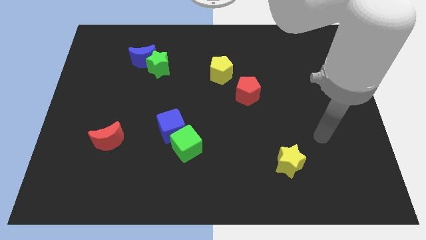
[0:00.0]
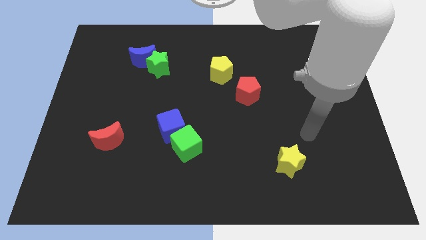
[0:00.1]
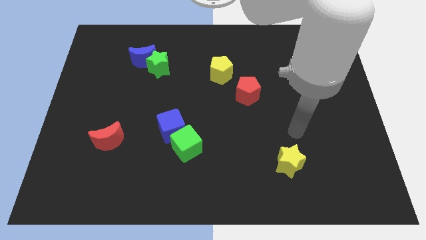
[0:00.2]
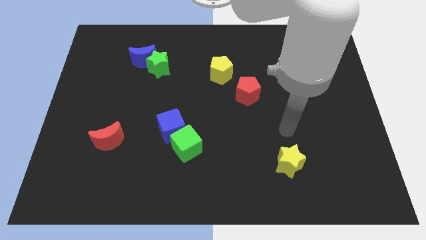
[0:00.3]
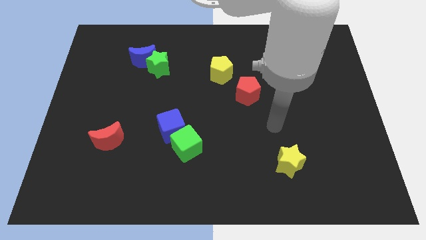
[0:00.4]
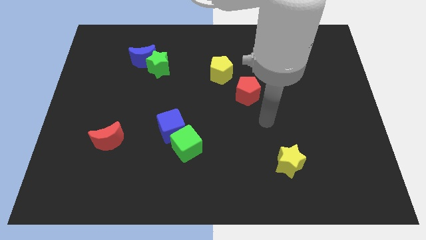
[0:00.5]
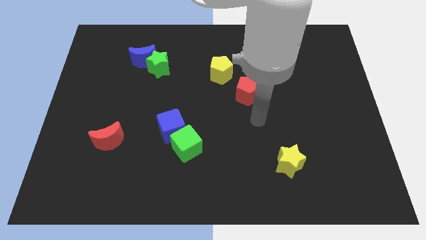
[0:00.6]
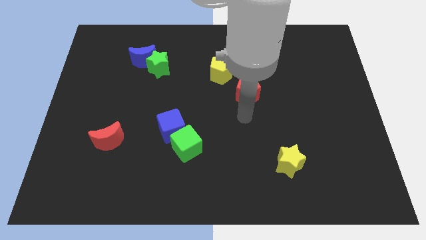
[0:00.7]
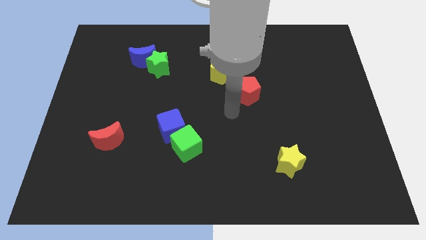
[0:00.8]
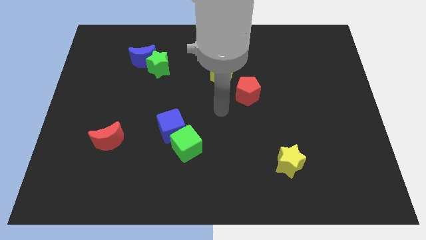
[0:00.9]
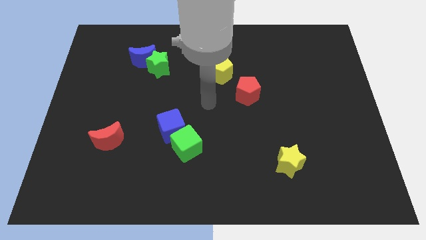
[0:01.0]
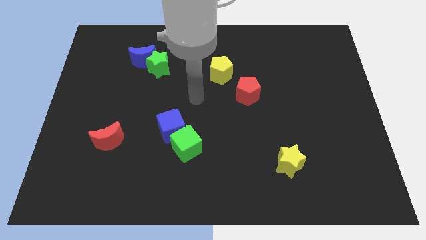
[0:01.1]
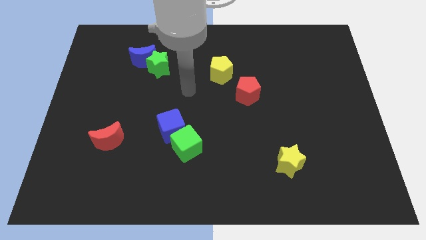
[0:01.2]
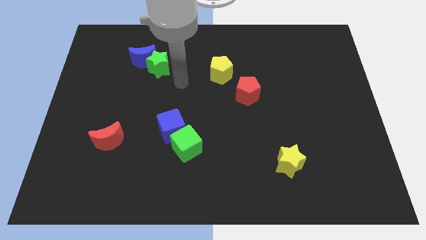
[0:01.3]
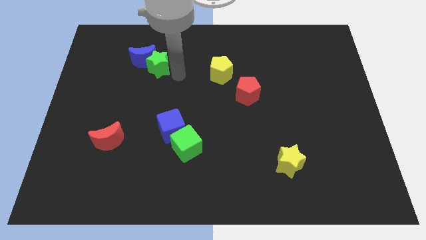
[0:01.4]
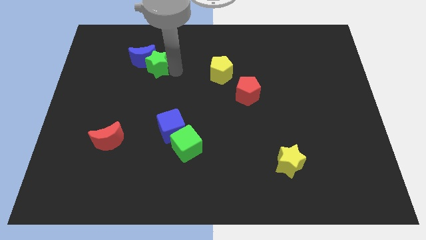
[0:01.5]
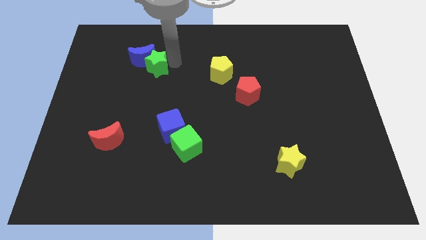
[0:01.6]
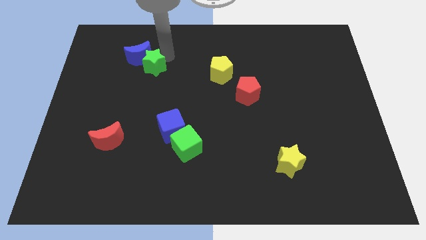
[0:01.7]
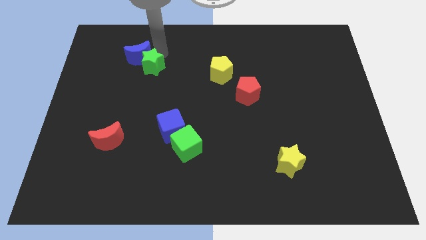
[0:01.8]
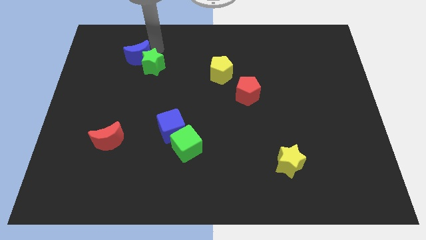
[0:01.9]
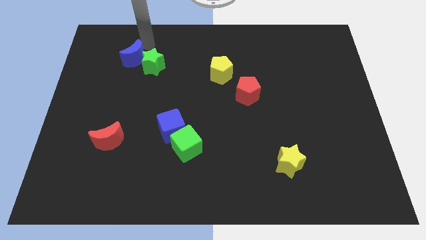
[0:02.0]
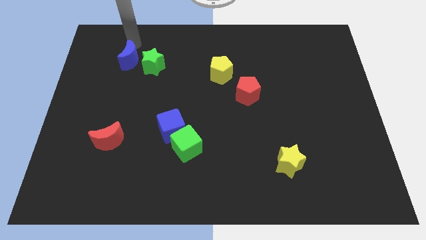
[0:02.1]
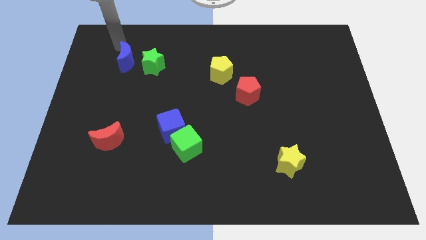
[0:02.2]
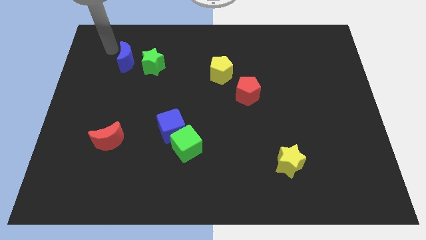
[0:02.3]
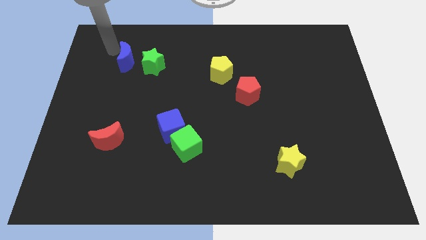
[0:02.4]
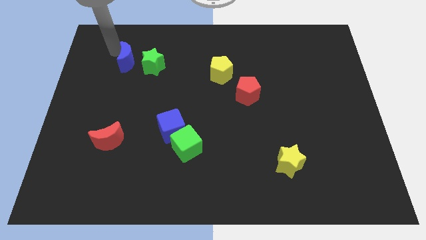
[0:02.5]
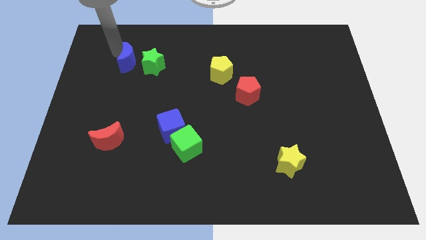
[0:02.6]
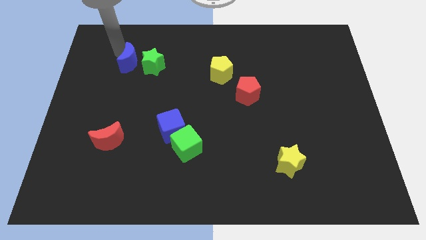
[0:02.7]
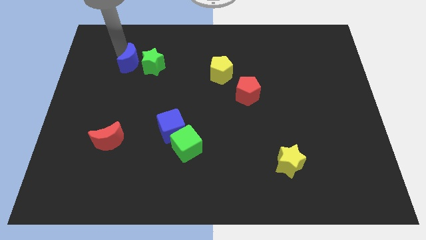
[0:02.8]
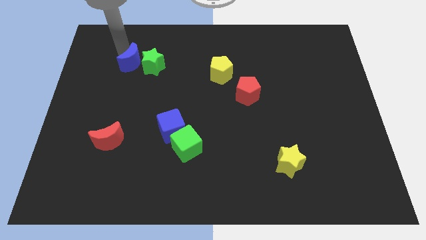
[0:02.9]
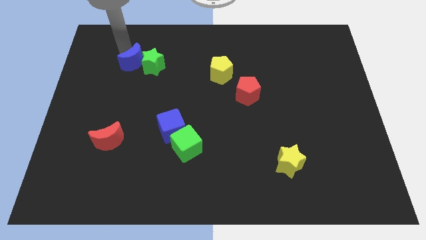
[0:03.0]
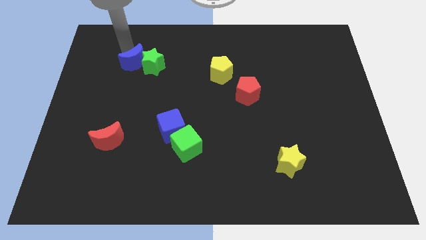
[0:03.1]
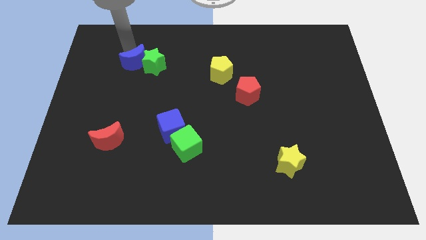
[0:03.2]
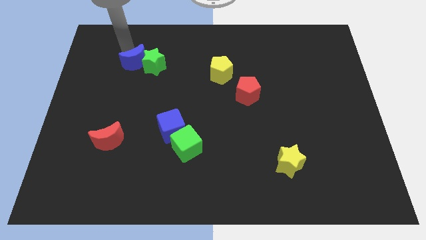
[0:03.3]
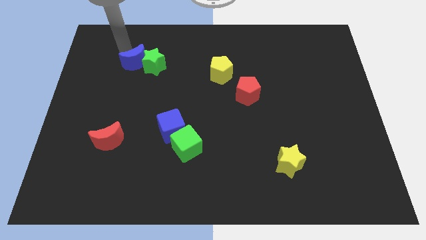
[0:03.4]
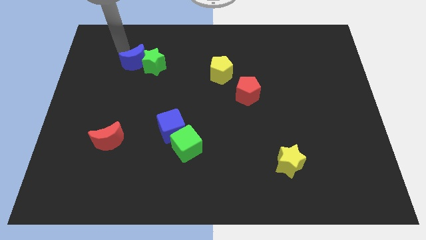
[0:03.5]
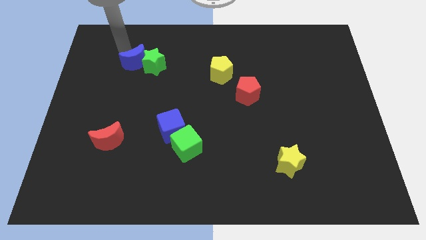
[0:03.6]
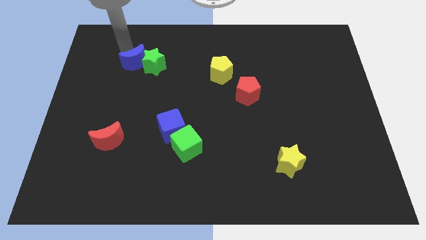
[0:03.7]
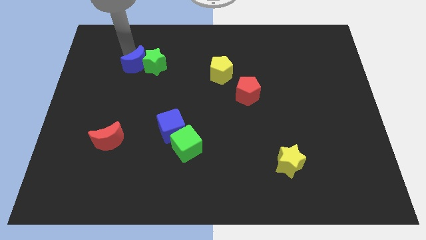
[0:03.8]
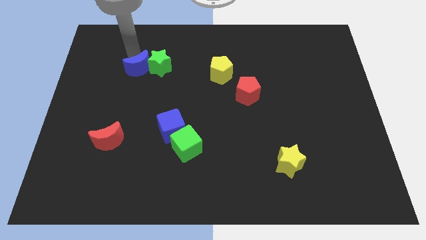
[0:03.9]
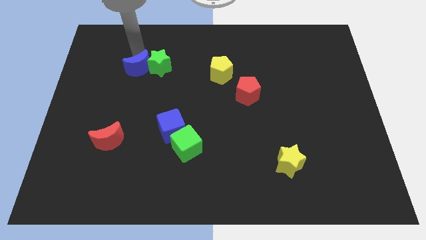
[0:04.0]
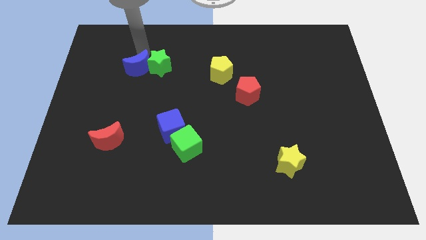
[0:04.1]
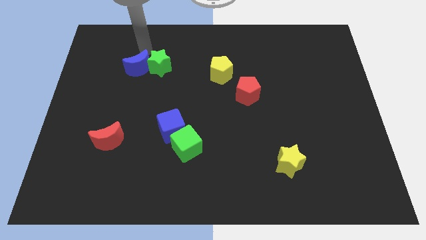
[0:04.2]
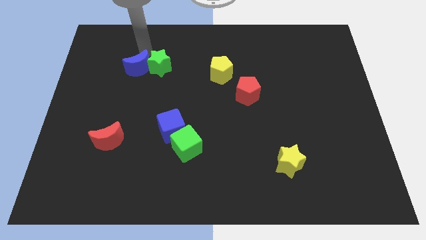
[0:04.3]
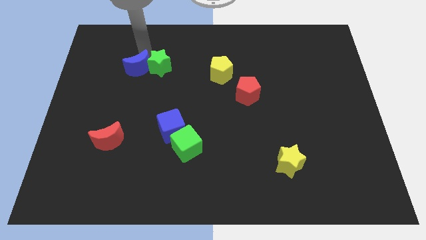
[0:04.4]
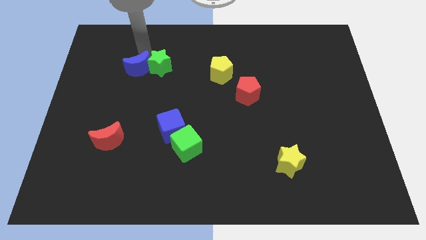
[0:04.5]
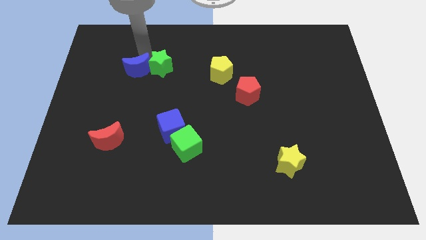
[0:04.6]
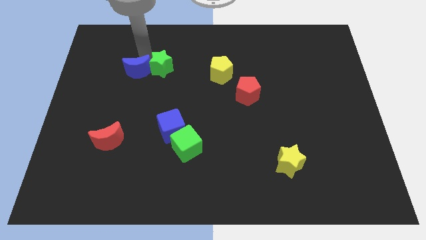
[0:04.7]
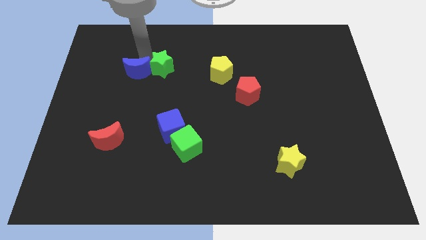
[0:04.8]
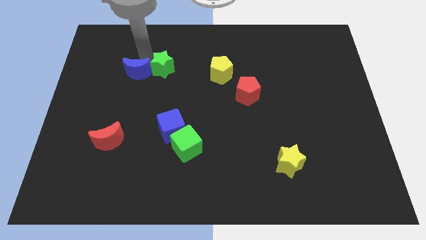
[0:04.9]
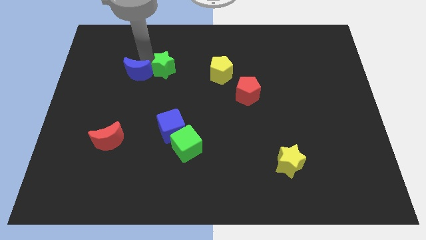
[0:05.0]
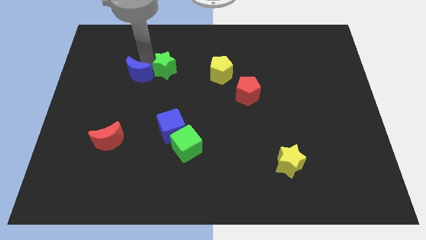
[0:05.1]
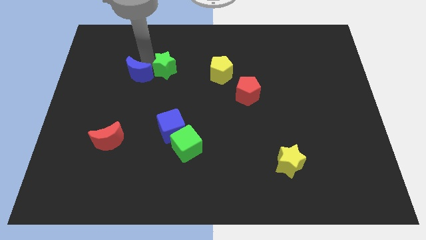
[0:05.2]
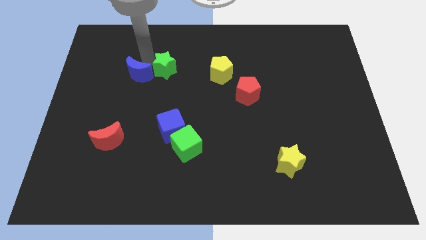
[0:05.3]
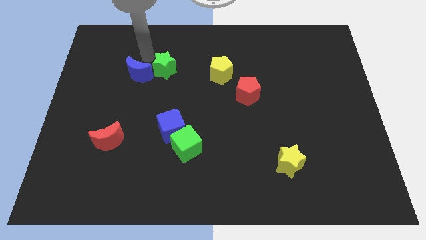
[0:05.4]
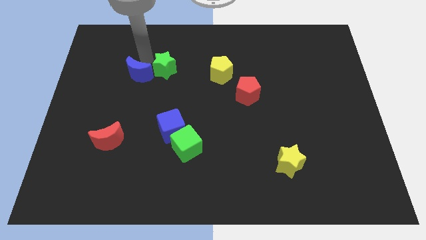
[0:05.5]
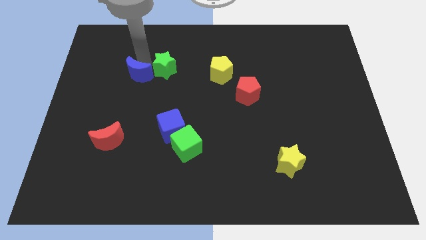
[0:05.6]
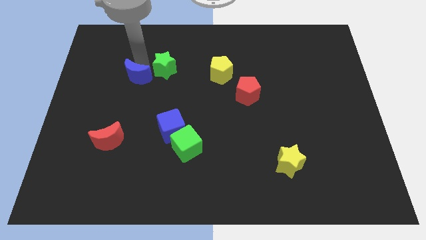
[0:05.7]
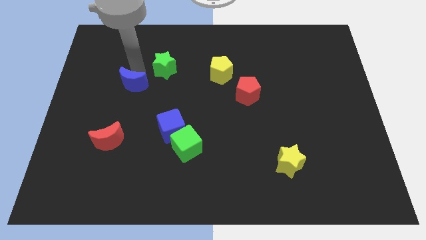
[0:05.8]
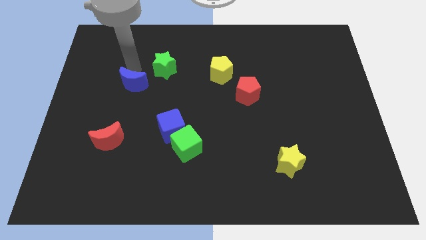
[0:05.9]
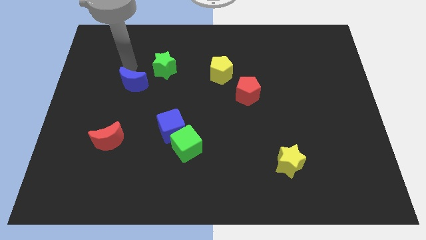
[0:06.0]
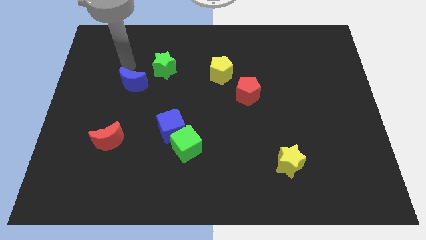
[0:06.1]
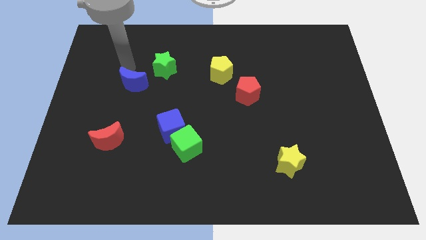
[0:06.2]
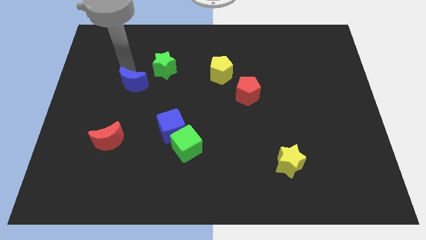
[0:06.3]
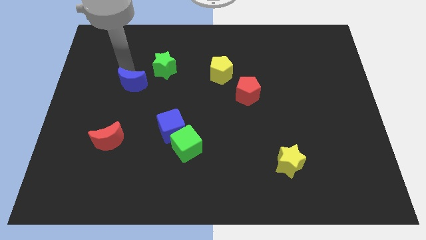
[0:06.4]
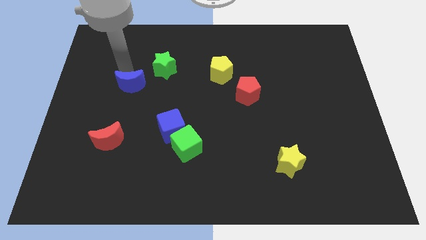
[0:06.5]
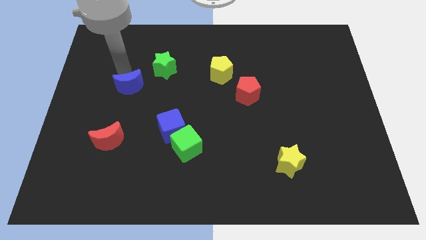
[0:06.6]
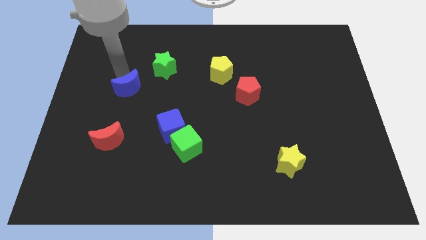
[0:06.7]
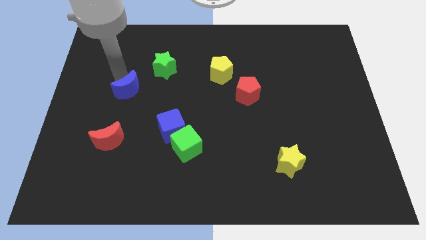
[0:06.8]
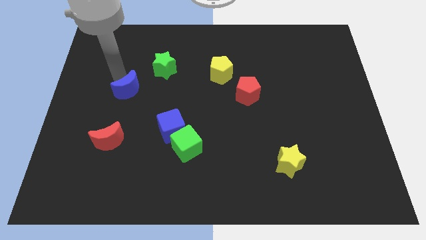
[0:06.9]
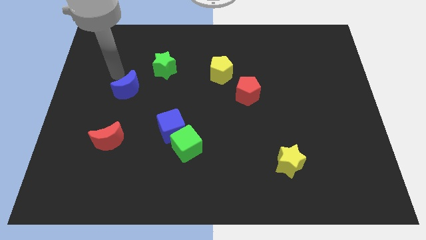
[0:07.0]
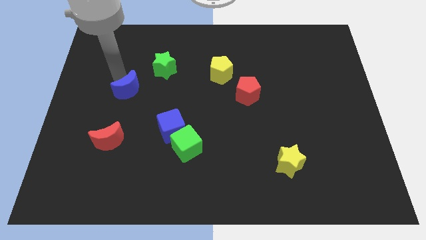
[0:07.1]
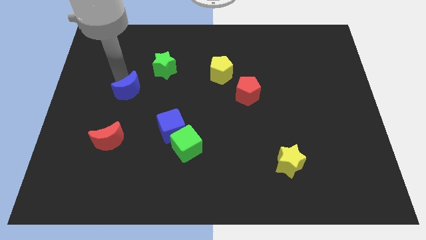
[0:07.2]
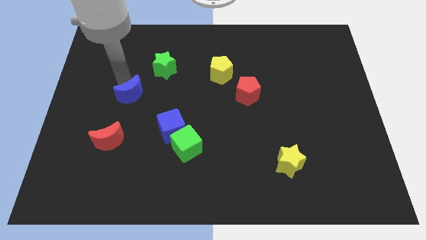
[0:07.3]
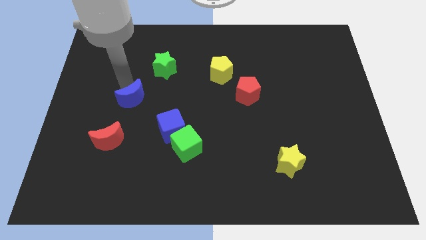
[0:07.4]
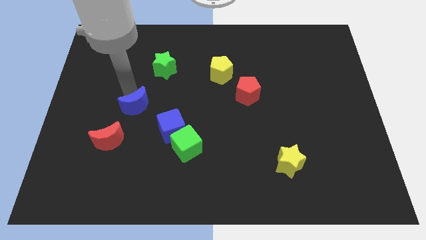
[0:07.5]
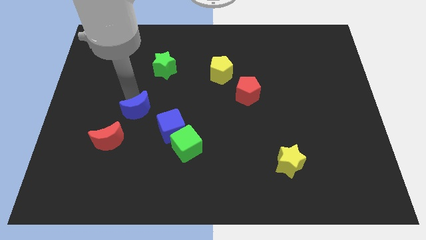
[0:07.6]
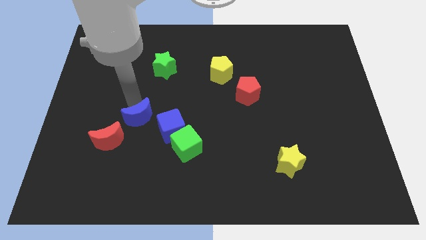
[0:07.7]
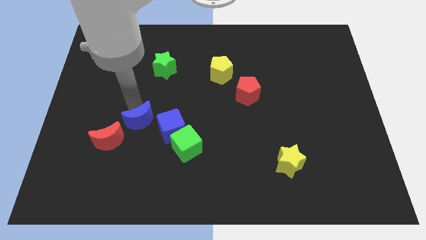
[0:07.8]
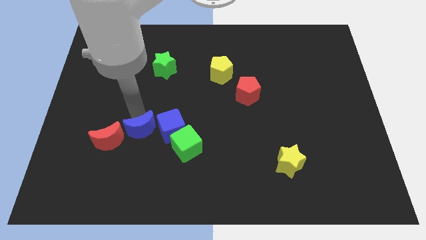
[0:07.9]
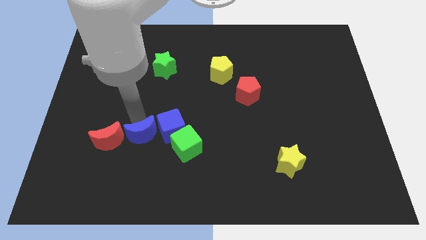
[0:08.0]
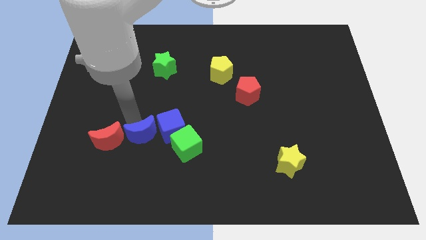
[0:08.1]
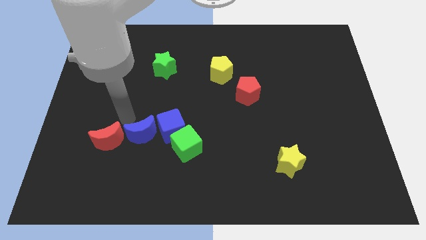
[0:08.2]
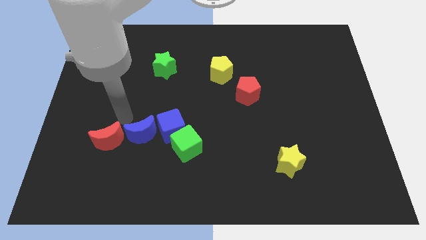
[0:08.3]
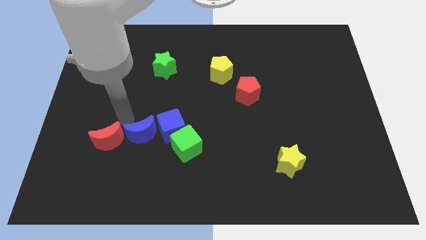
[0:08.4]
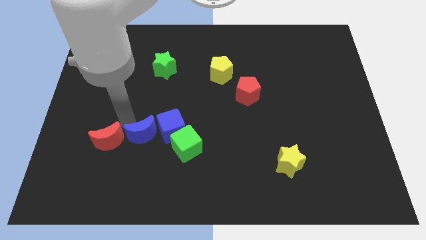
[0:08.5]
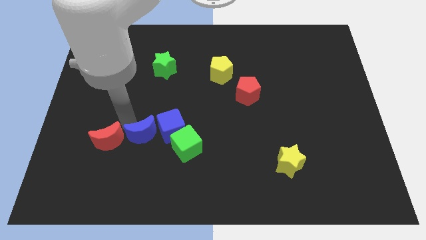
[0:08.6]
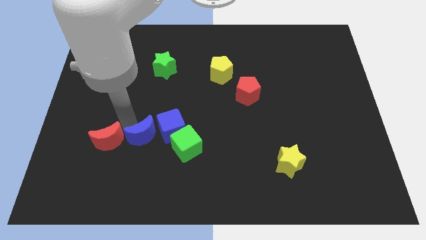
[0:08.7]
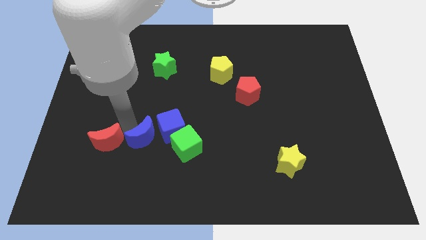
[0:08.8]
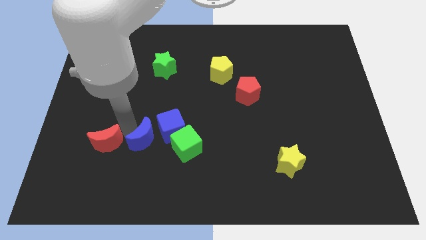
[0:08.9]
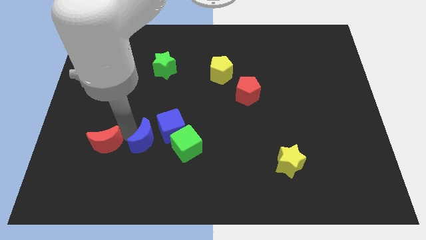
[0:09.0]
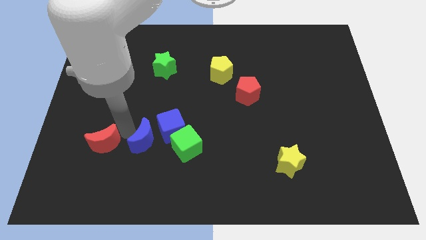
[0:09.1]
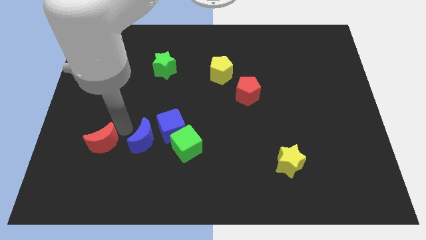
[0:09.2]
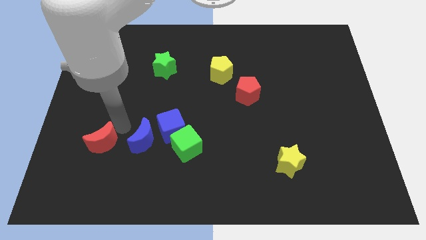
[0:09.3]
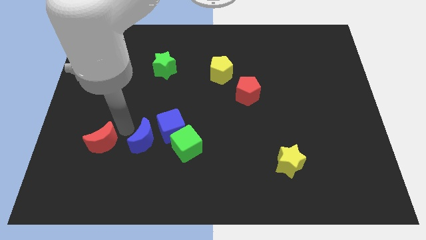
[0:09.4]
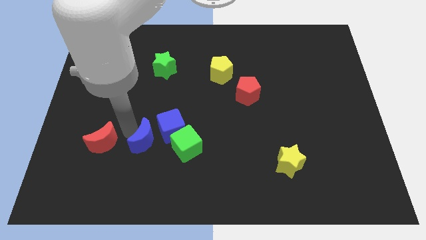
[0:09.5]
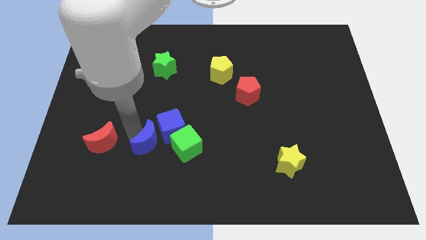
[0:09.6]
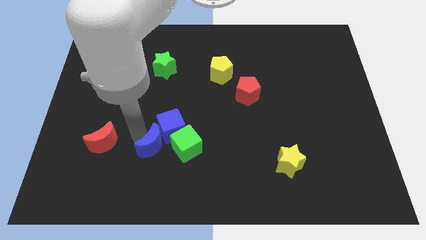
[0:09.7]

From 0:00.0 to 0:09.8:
move the blue moon to the bottom of the blue cube
